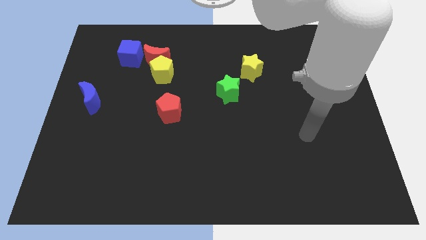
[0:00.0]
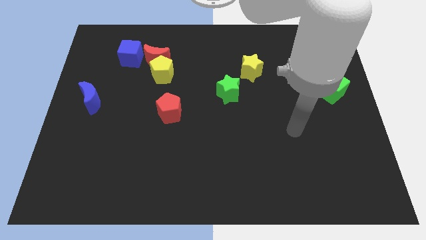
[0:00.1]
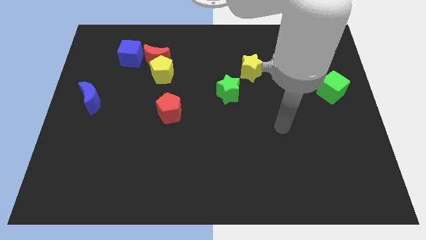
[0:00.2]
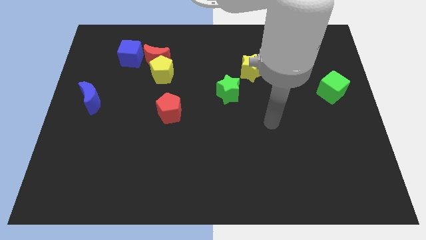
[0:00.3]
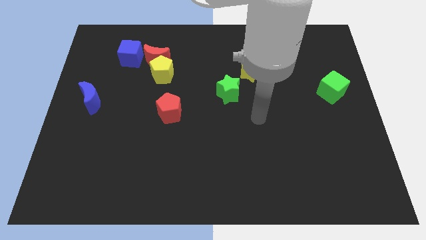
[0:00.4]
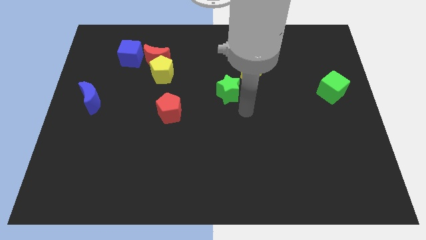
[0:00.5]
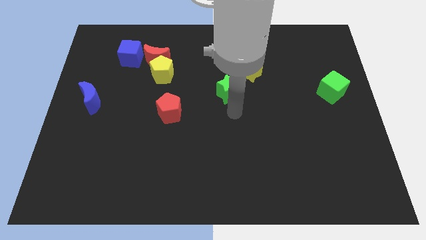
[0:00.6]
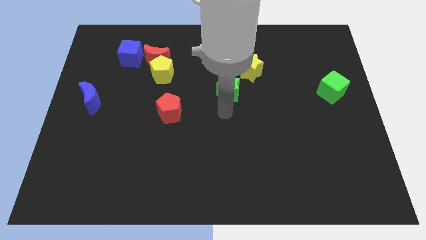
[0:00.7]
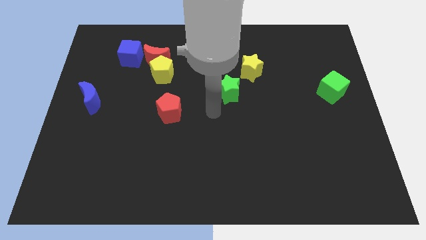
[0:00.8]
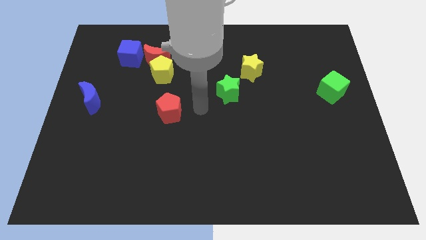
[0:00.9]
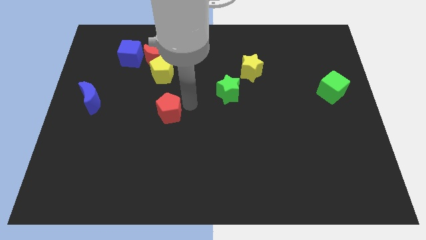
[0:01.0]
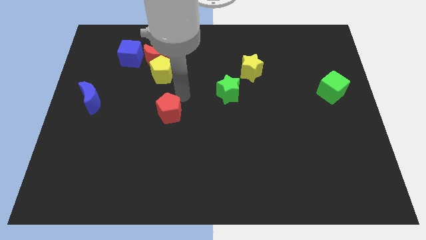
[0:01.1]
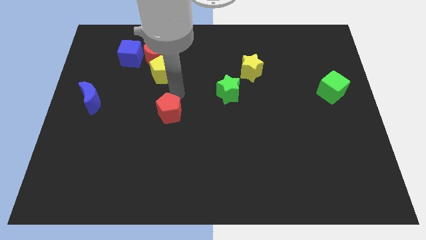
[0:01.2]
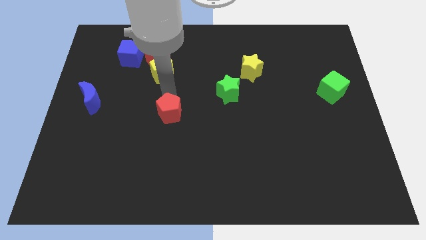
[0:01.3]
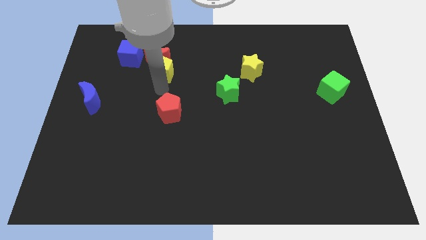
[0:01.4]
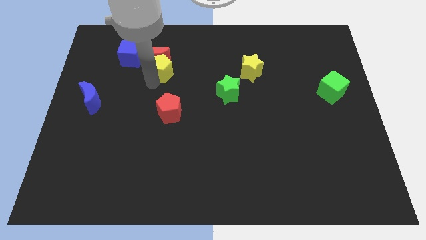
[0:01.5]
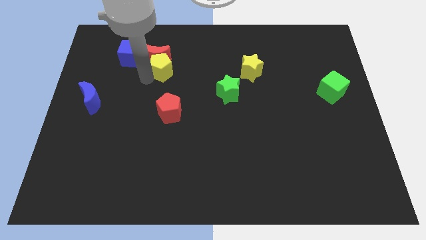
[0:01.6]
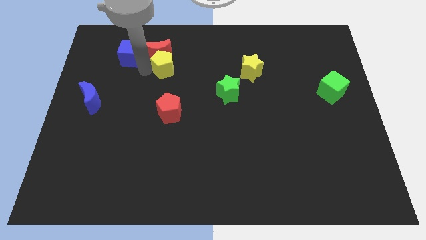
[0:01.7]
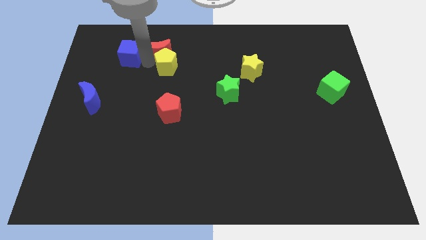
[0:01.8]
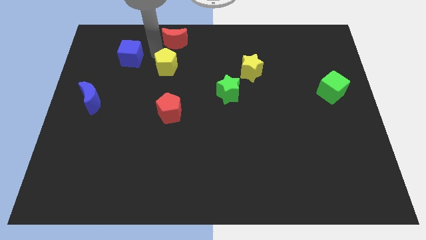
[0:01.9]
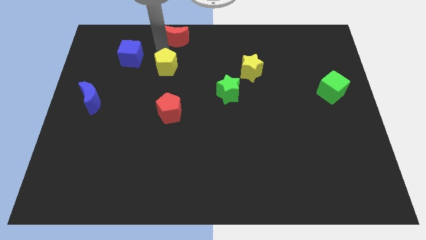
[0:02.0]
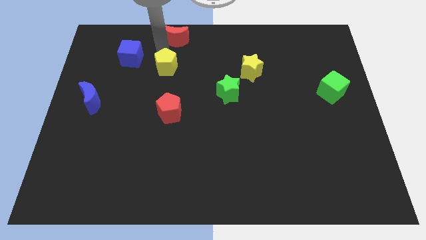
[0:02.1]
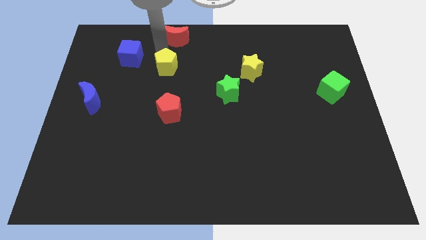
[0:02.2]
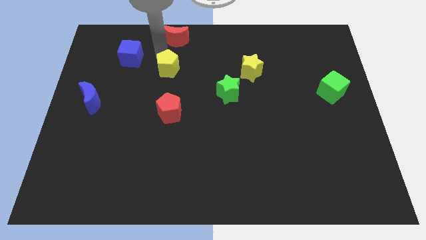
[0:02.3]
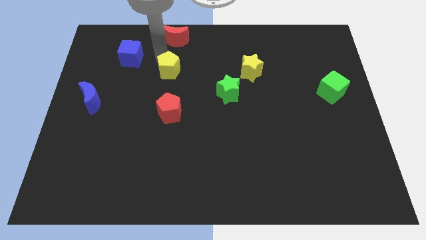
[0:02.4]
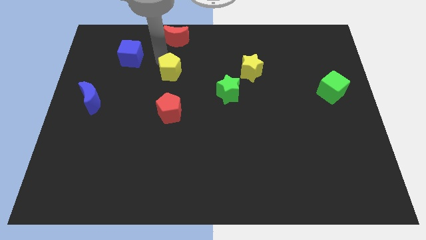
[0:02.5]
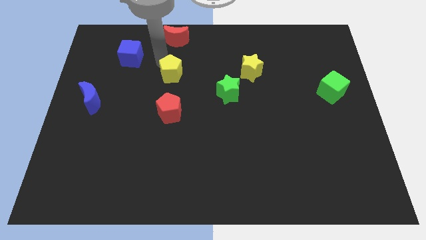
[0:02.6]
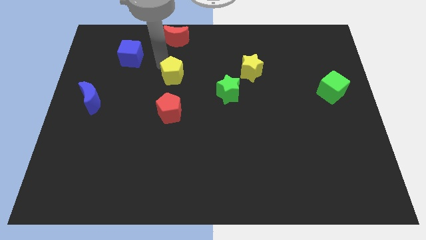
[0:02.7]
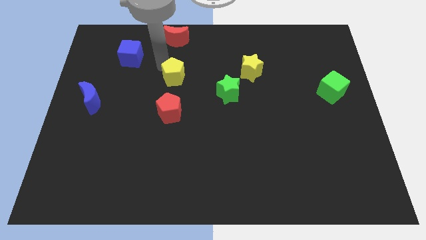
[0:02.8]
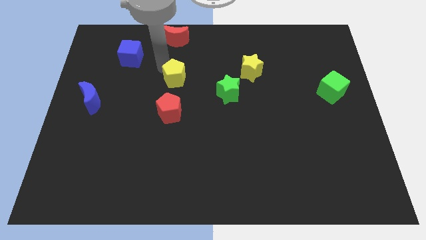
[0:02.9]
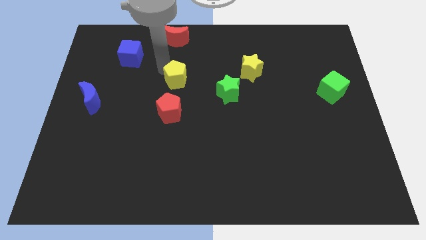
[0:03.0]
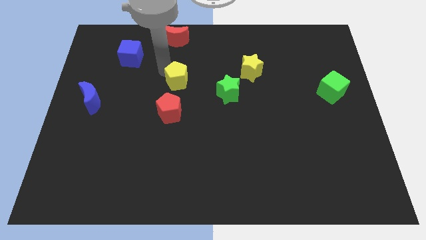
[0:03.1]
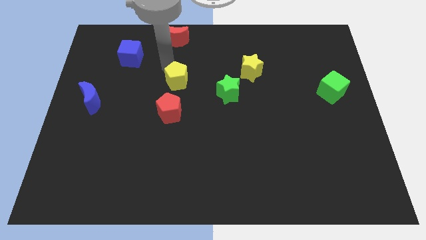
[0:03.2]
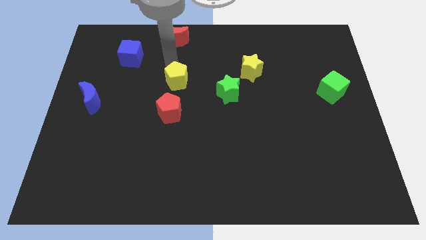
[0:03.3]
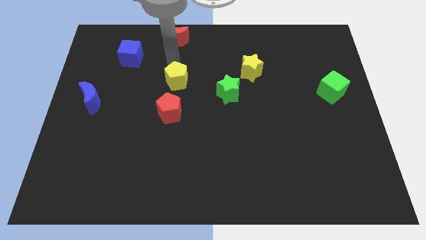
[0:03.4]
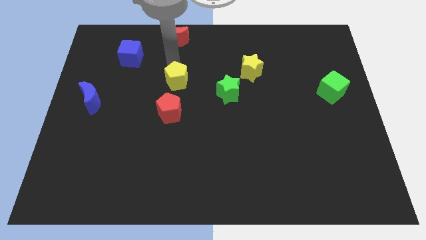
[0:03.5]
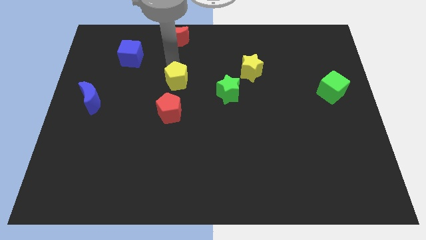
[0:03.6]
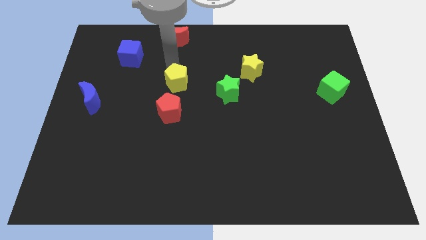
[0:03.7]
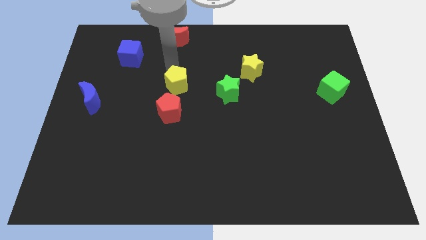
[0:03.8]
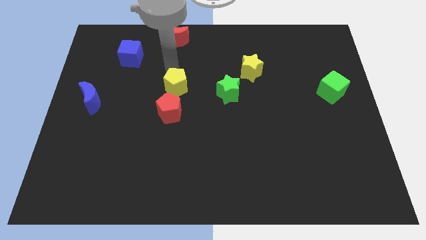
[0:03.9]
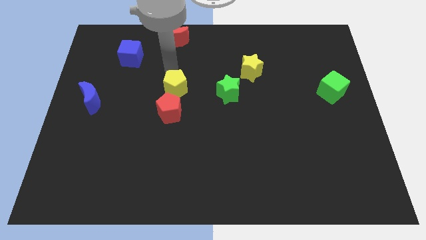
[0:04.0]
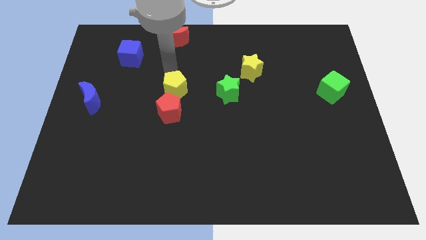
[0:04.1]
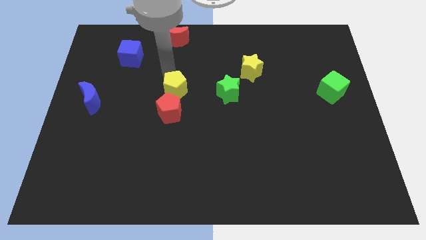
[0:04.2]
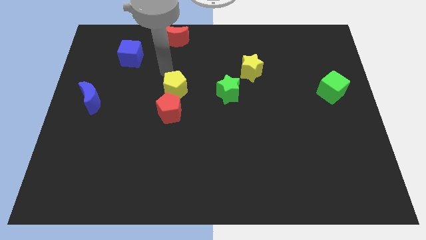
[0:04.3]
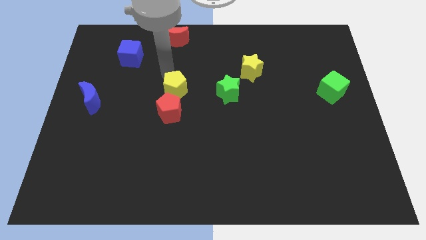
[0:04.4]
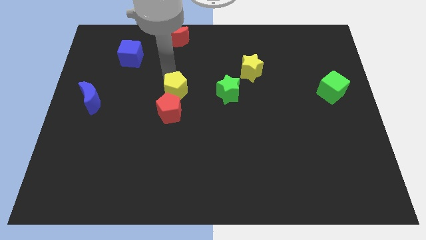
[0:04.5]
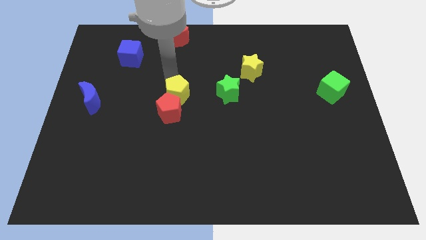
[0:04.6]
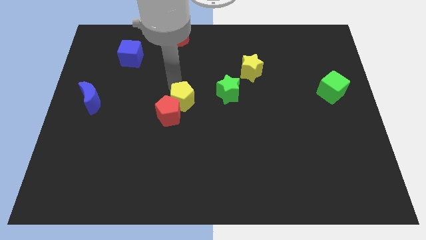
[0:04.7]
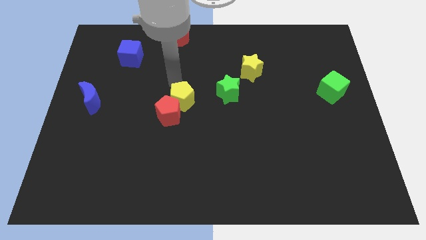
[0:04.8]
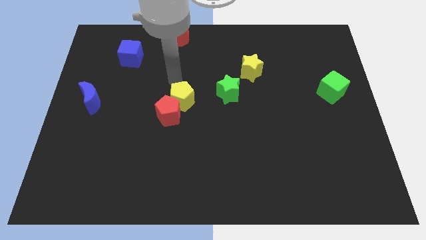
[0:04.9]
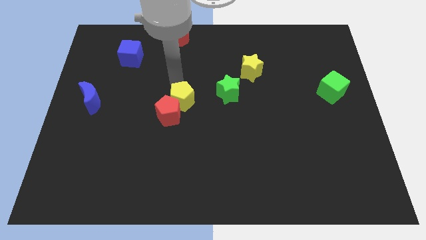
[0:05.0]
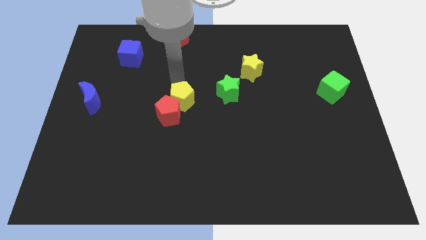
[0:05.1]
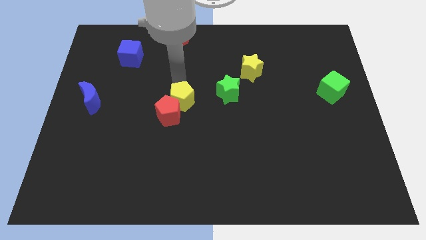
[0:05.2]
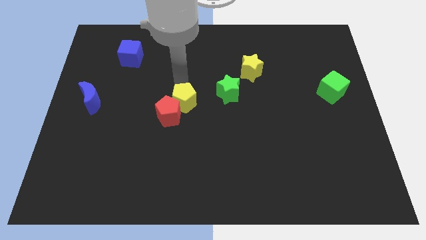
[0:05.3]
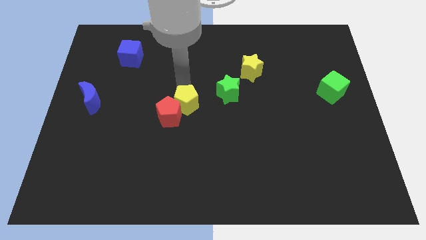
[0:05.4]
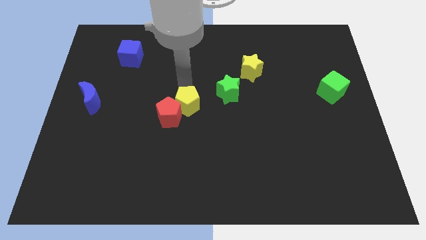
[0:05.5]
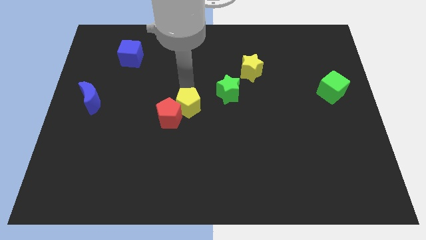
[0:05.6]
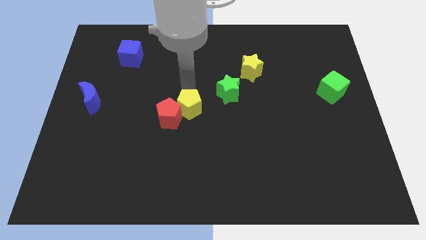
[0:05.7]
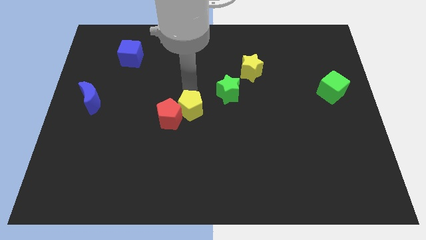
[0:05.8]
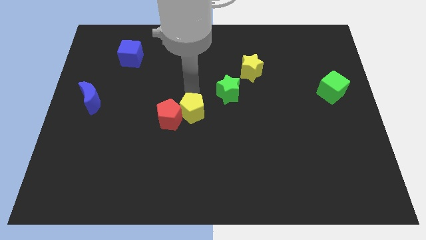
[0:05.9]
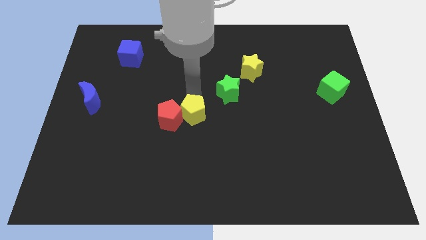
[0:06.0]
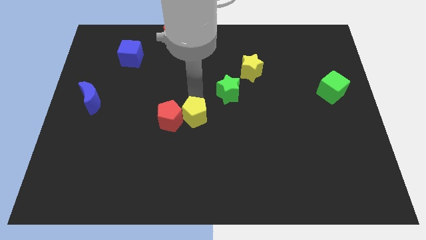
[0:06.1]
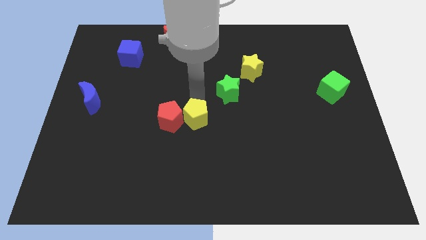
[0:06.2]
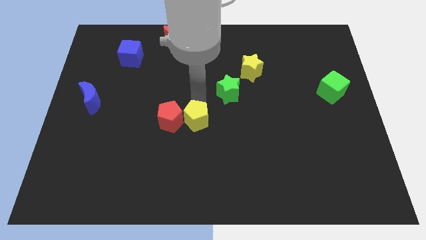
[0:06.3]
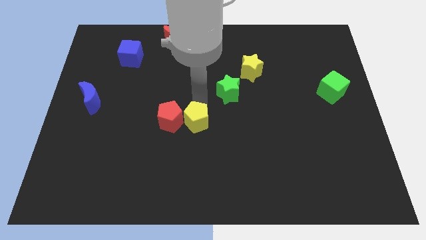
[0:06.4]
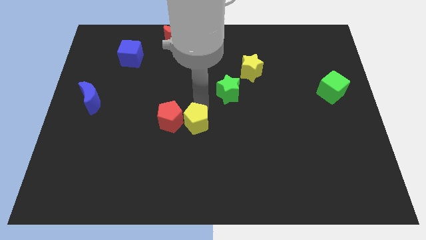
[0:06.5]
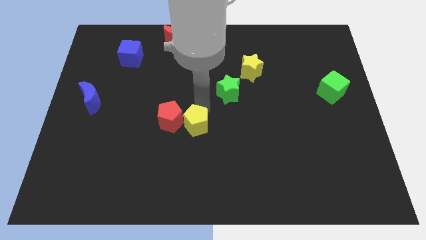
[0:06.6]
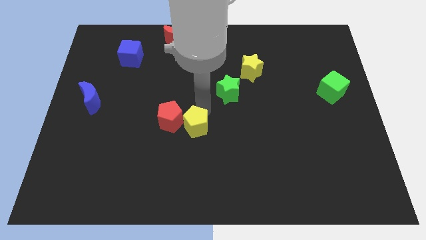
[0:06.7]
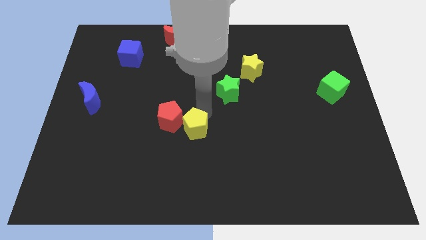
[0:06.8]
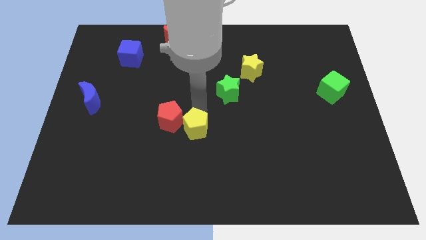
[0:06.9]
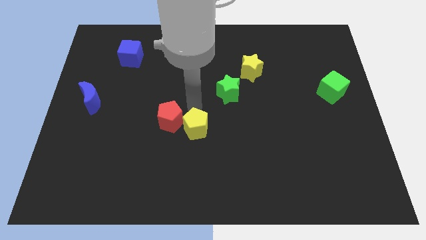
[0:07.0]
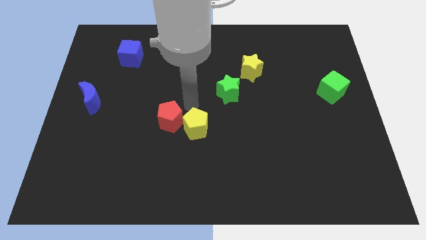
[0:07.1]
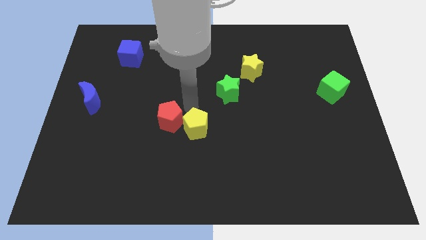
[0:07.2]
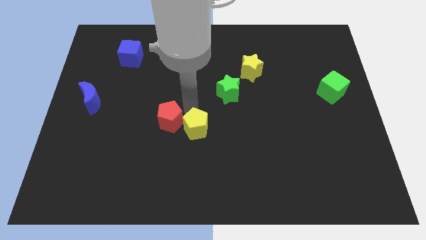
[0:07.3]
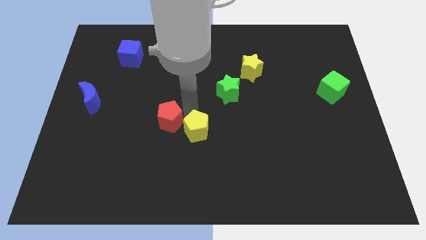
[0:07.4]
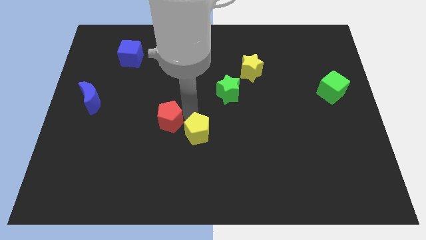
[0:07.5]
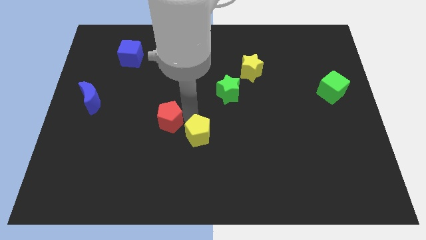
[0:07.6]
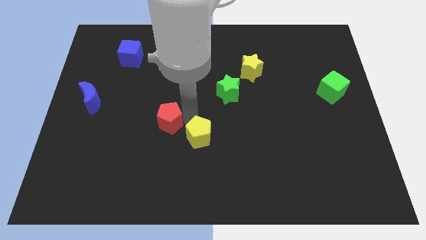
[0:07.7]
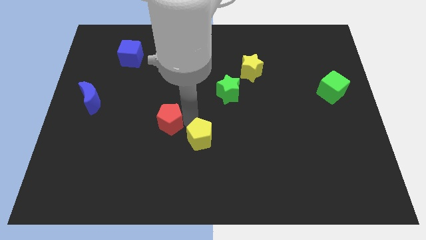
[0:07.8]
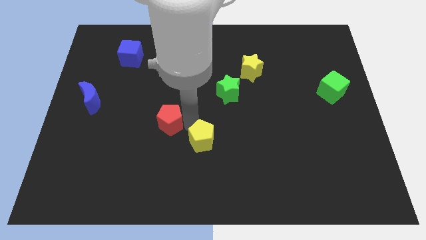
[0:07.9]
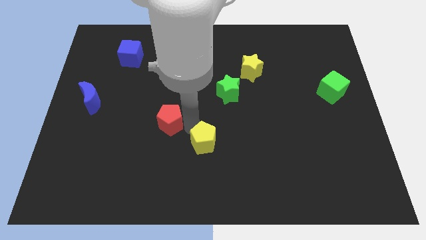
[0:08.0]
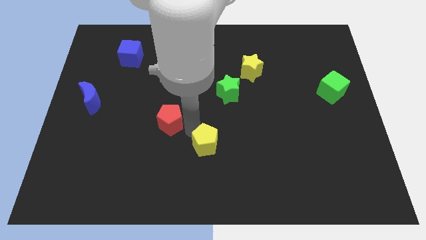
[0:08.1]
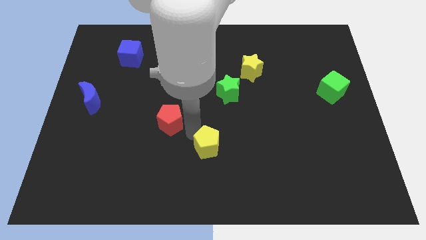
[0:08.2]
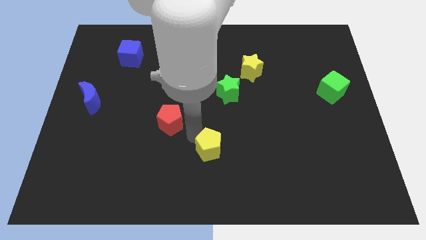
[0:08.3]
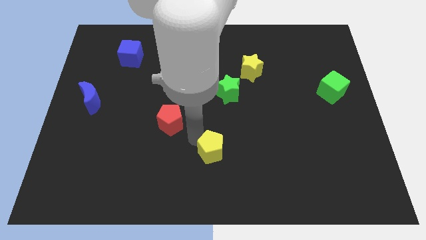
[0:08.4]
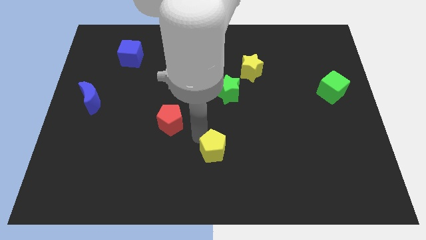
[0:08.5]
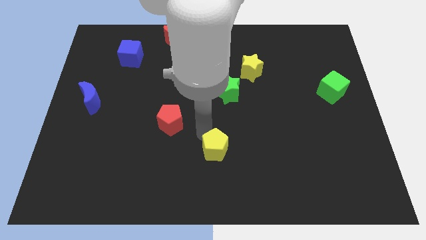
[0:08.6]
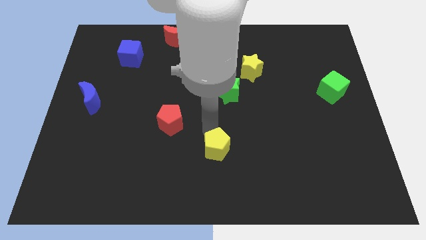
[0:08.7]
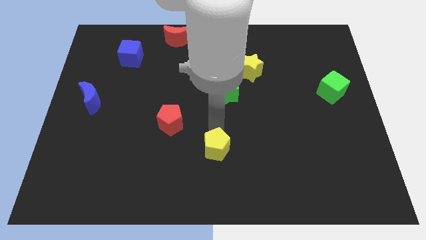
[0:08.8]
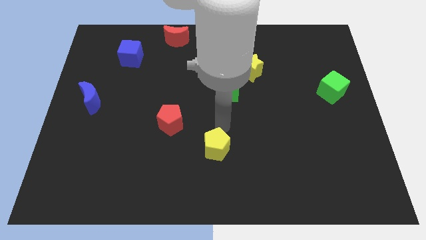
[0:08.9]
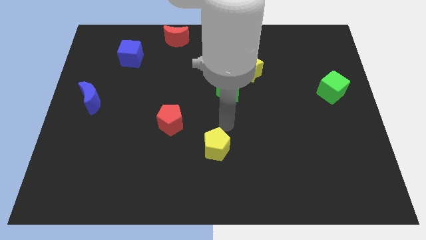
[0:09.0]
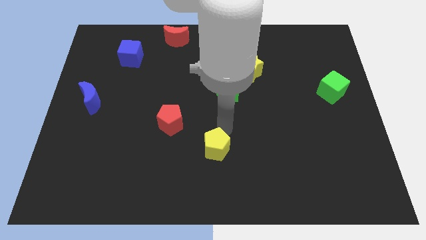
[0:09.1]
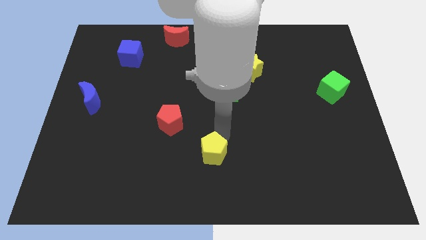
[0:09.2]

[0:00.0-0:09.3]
slide the yellow pentagon to the bottom
